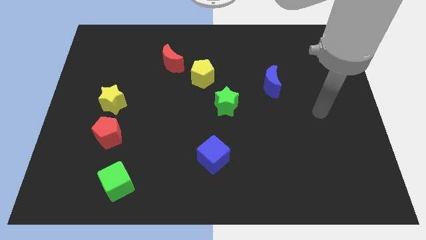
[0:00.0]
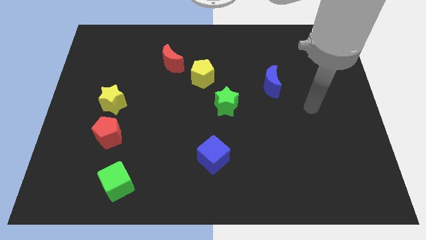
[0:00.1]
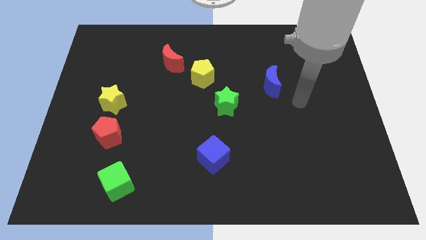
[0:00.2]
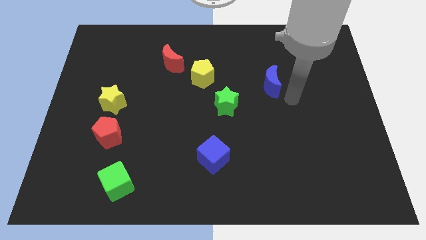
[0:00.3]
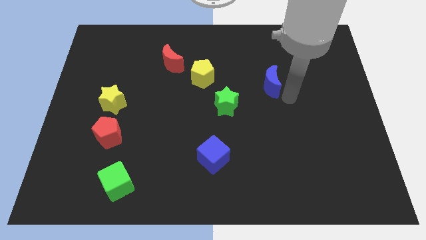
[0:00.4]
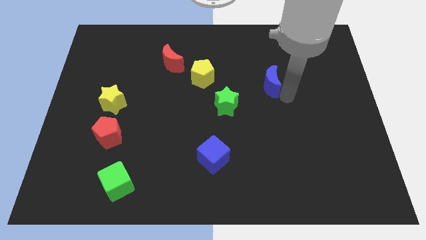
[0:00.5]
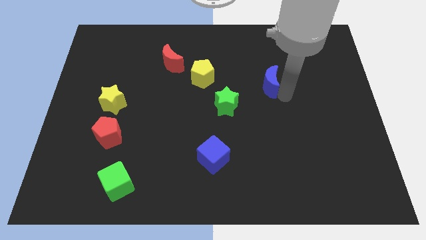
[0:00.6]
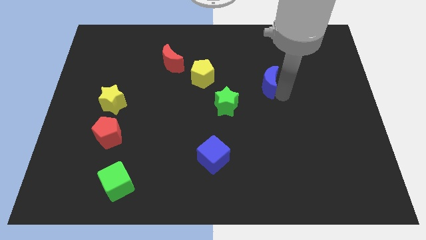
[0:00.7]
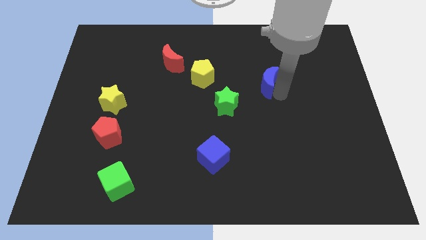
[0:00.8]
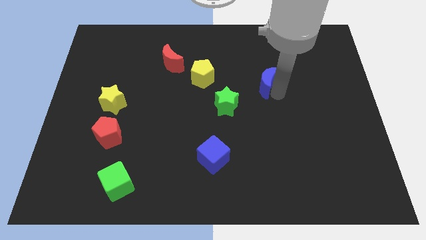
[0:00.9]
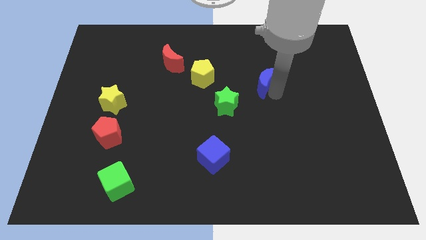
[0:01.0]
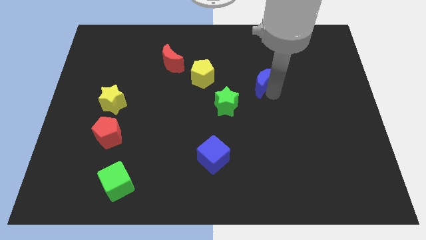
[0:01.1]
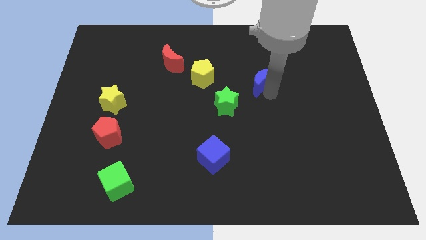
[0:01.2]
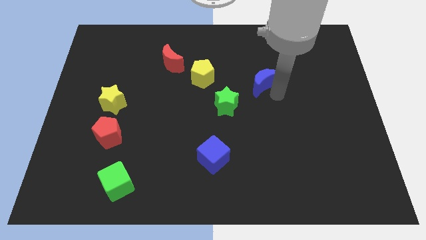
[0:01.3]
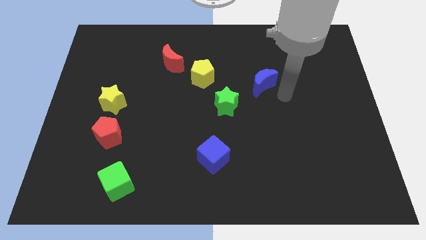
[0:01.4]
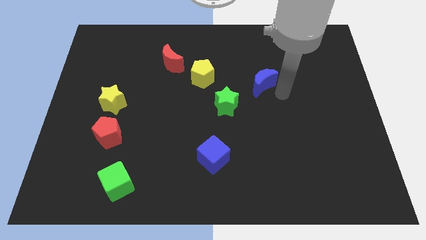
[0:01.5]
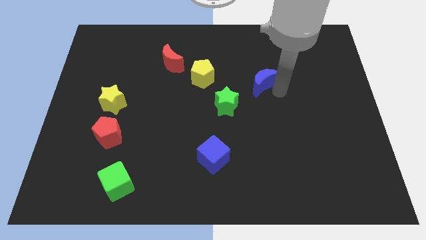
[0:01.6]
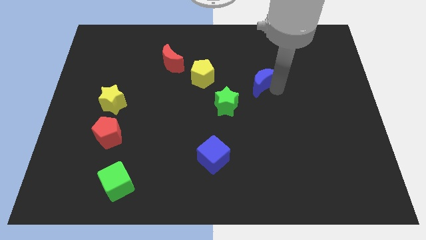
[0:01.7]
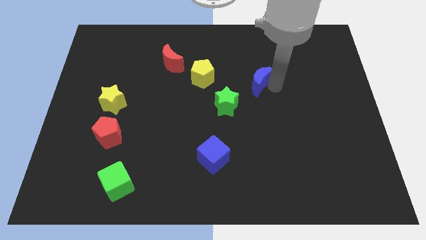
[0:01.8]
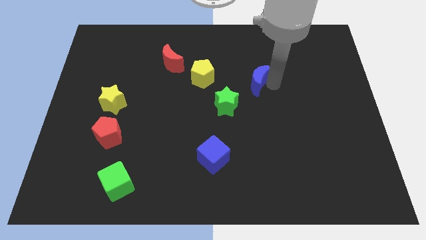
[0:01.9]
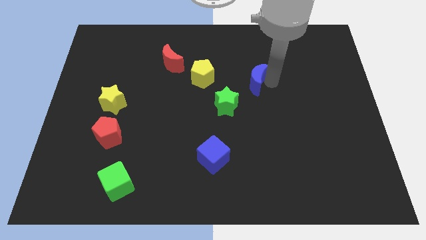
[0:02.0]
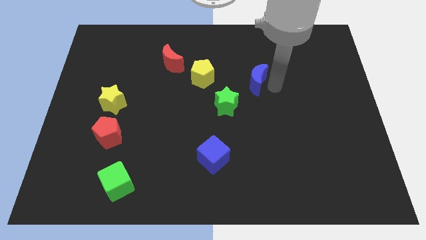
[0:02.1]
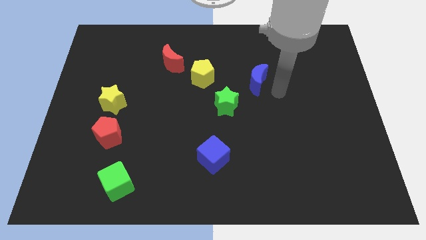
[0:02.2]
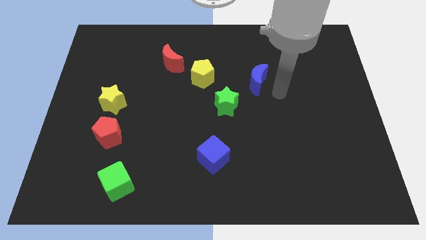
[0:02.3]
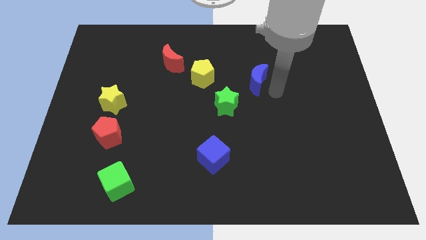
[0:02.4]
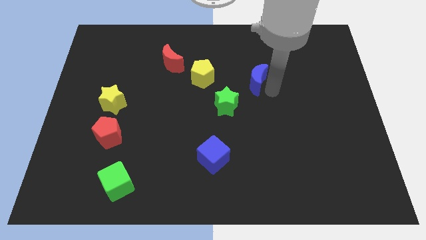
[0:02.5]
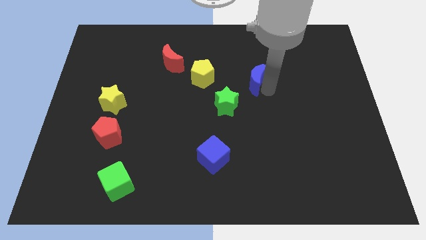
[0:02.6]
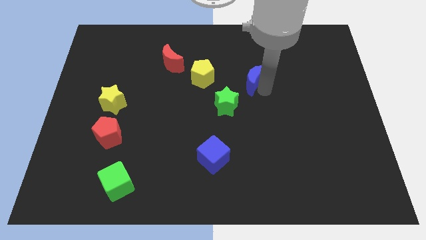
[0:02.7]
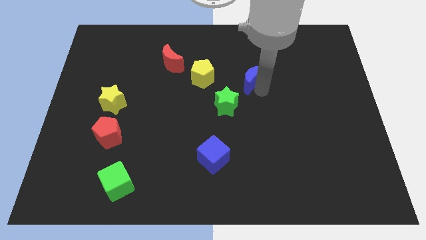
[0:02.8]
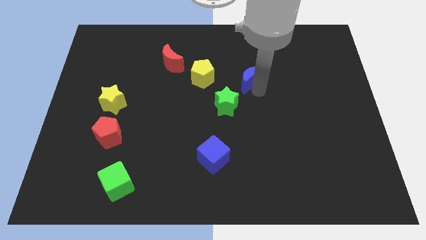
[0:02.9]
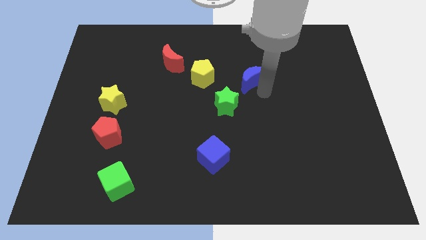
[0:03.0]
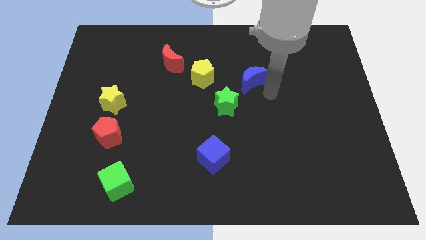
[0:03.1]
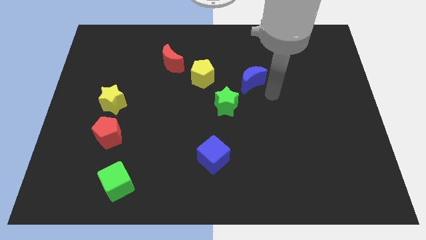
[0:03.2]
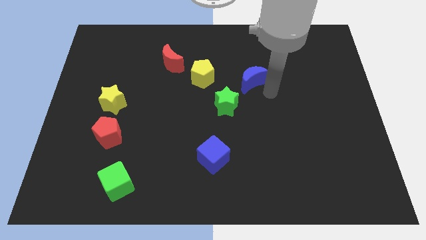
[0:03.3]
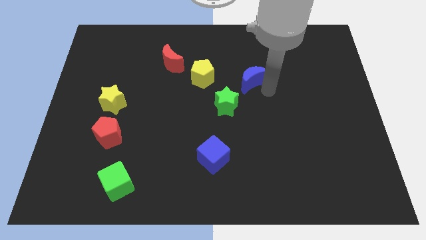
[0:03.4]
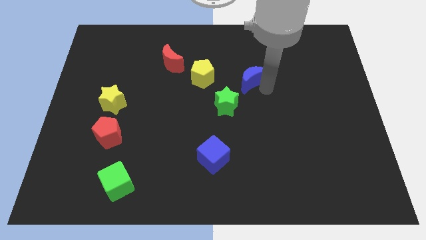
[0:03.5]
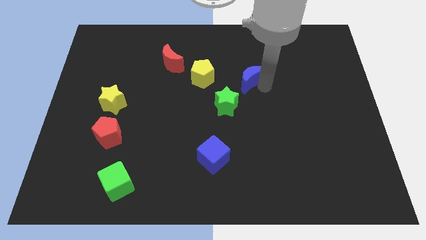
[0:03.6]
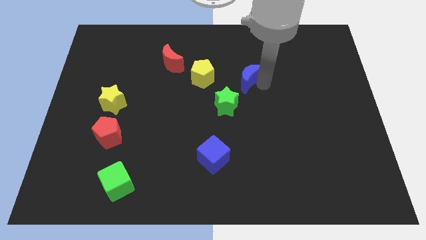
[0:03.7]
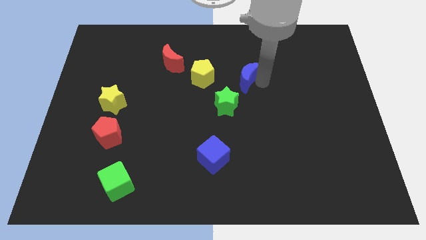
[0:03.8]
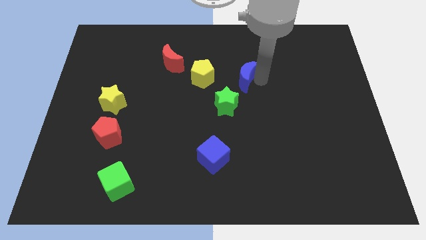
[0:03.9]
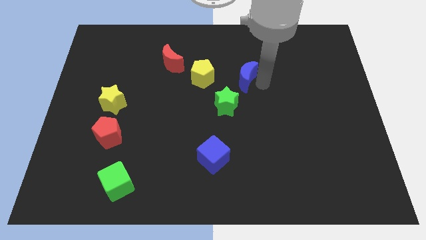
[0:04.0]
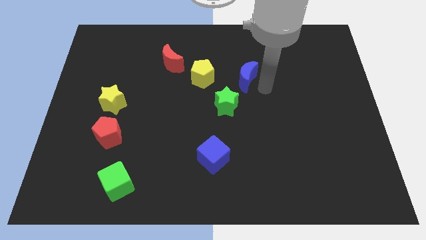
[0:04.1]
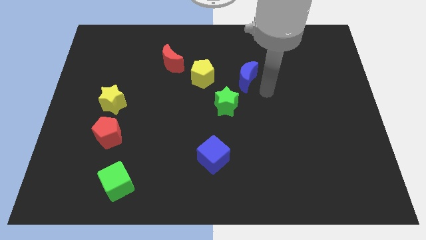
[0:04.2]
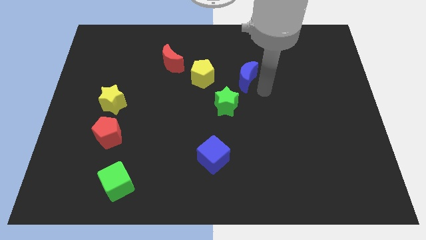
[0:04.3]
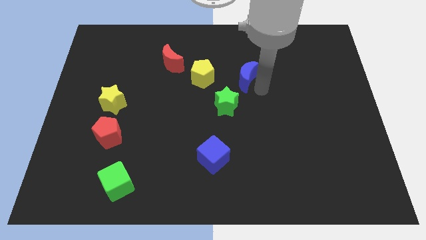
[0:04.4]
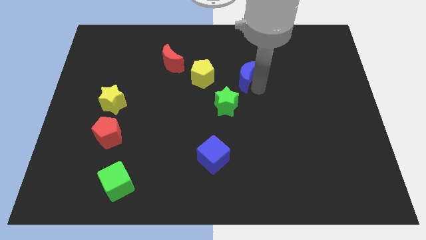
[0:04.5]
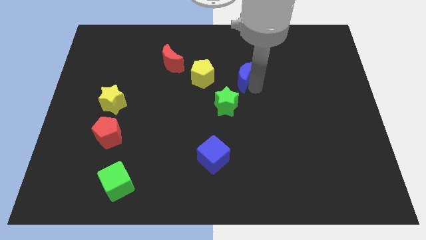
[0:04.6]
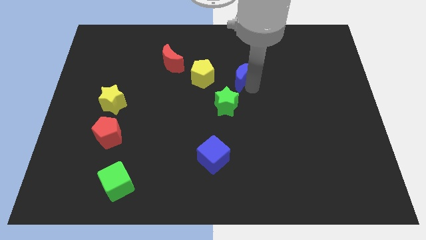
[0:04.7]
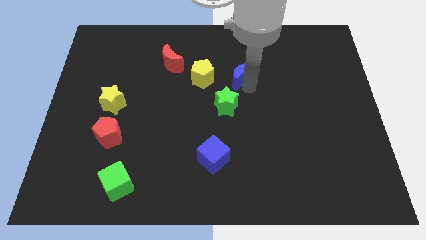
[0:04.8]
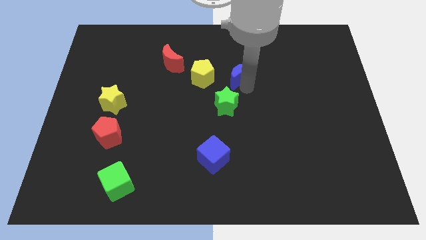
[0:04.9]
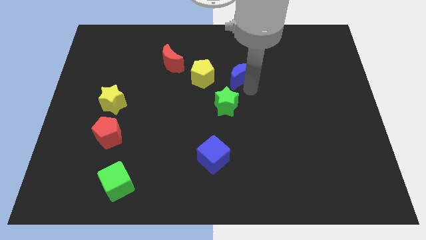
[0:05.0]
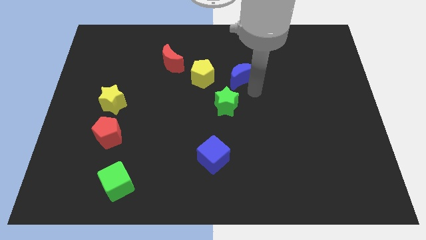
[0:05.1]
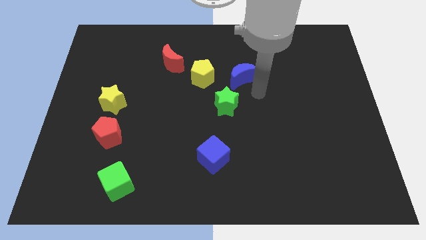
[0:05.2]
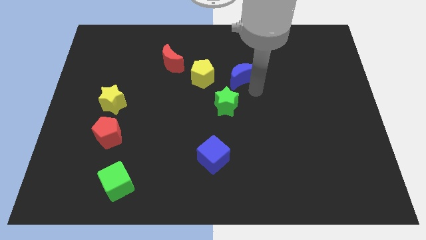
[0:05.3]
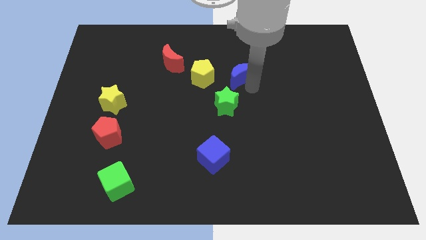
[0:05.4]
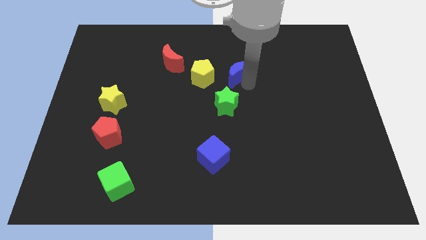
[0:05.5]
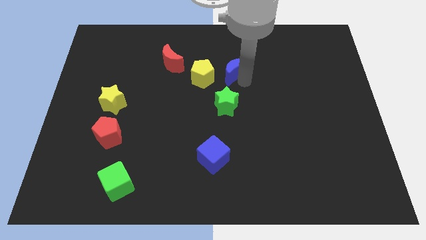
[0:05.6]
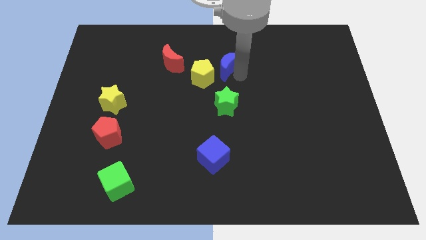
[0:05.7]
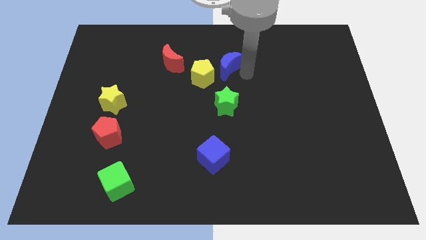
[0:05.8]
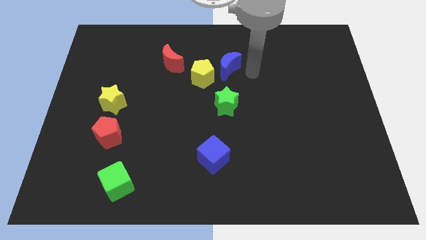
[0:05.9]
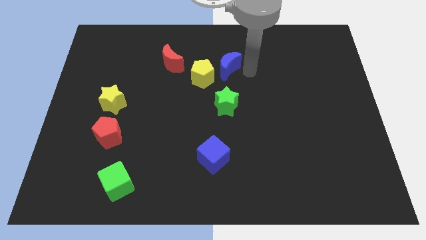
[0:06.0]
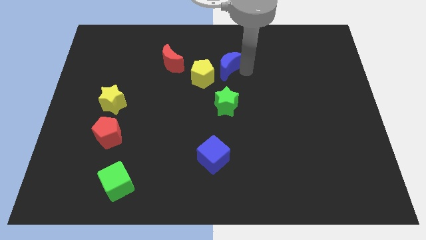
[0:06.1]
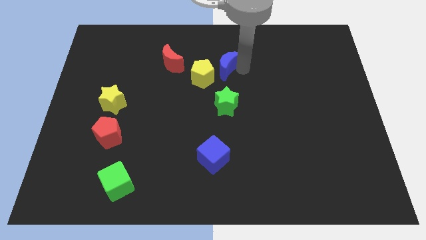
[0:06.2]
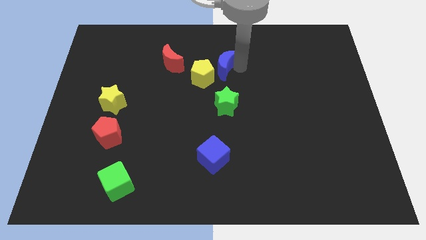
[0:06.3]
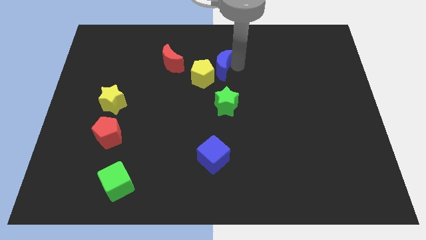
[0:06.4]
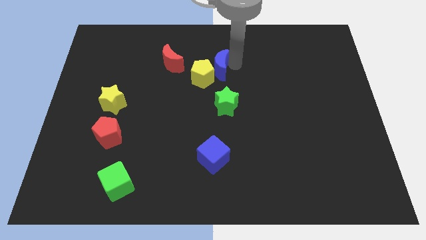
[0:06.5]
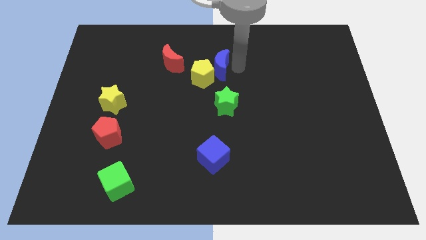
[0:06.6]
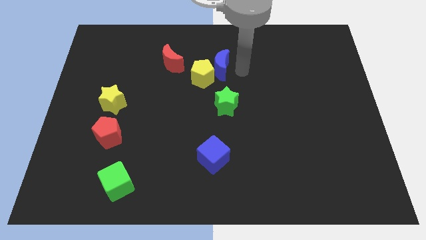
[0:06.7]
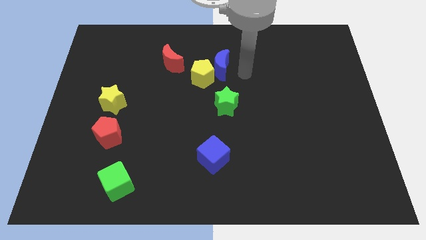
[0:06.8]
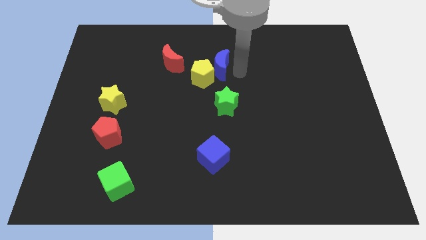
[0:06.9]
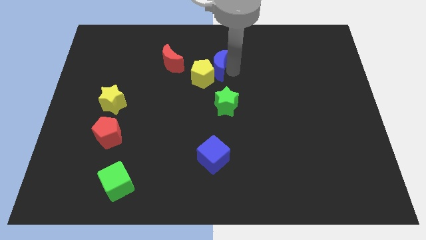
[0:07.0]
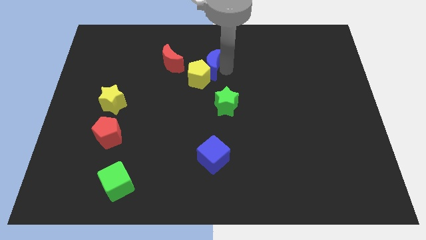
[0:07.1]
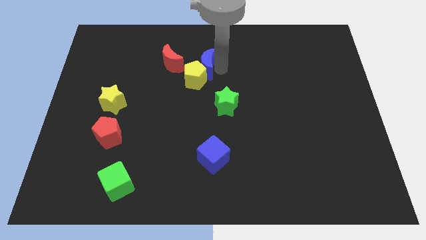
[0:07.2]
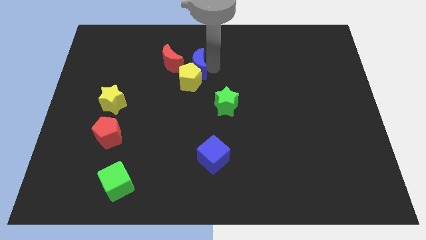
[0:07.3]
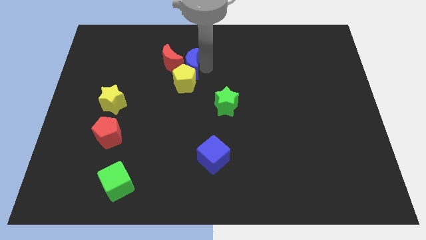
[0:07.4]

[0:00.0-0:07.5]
push the blue moon close to the red moon

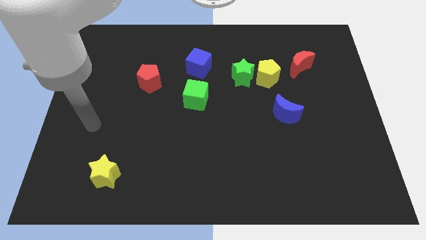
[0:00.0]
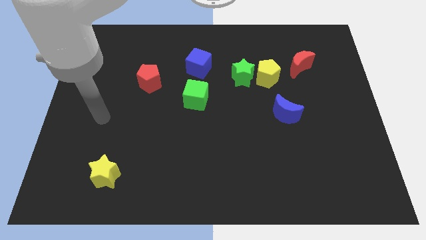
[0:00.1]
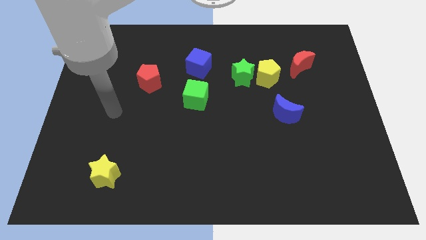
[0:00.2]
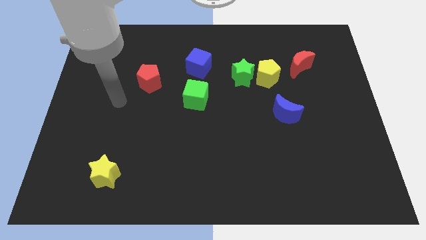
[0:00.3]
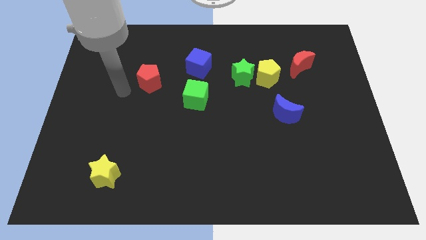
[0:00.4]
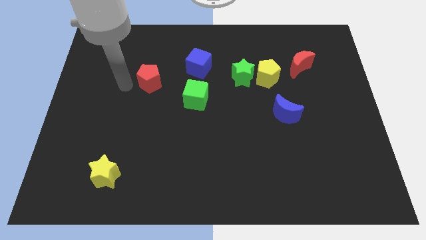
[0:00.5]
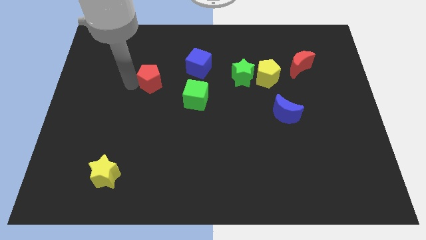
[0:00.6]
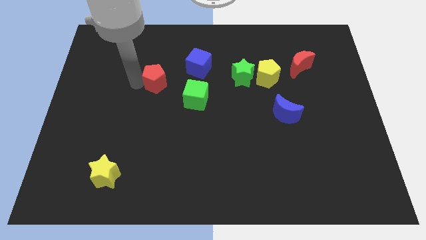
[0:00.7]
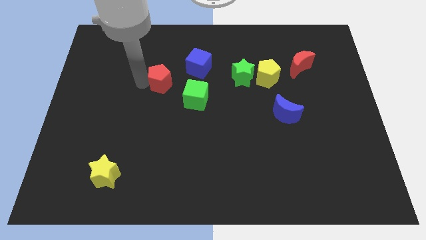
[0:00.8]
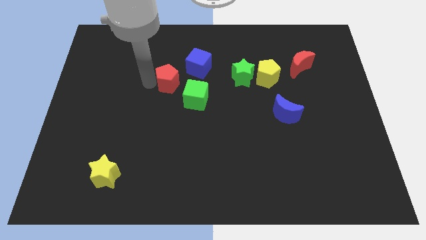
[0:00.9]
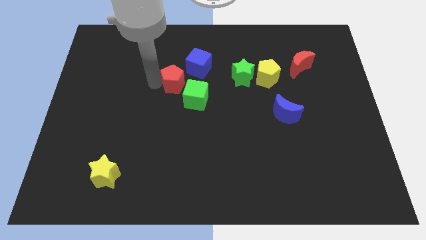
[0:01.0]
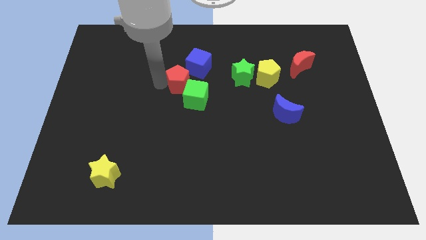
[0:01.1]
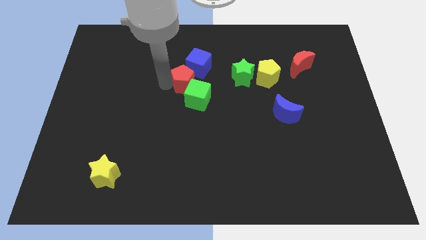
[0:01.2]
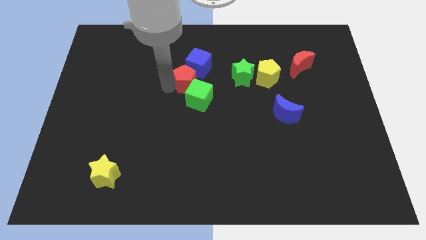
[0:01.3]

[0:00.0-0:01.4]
move the red pentagon close to the blue cube
